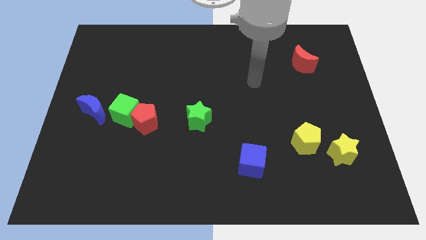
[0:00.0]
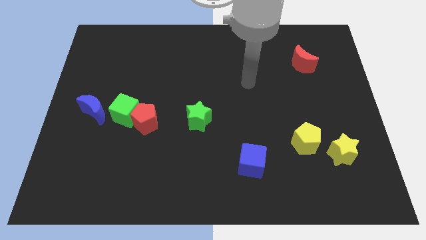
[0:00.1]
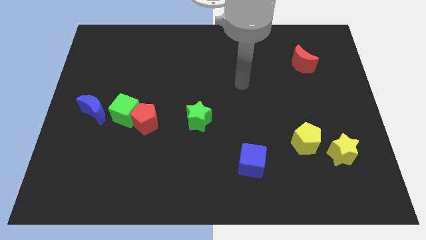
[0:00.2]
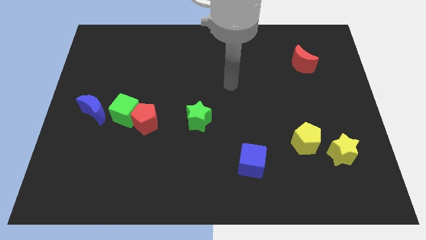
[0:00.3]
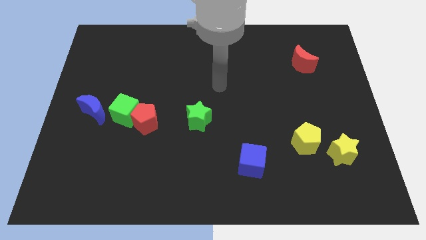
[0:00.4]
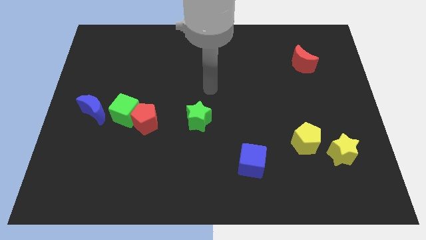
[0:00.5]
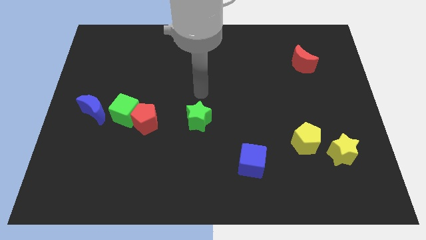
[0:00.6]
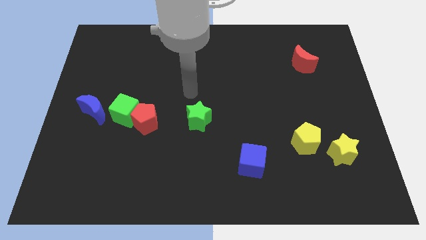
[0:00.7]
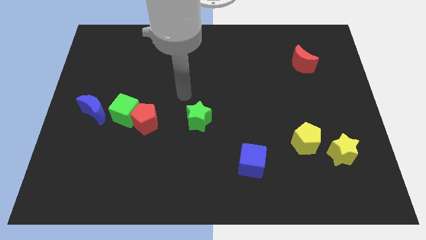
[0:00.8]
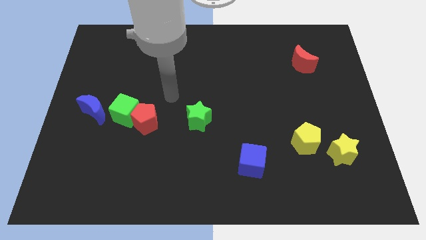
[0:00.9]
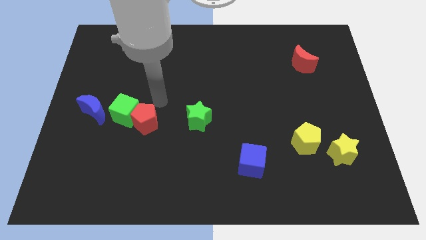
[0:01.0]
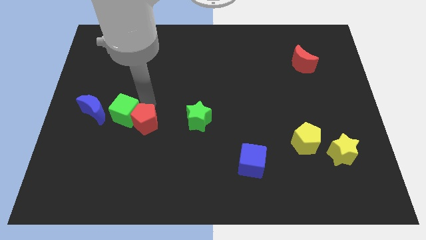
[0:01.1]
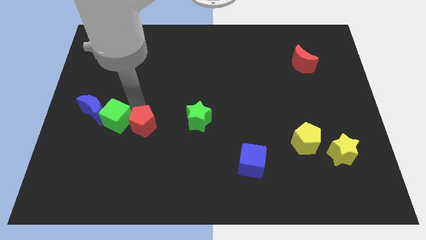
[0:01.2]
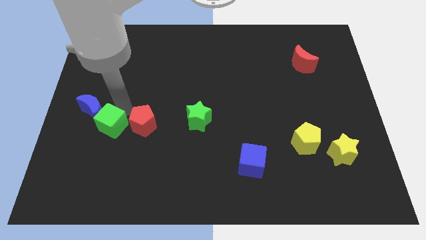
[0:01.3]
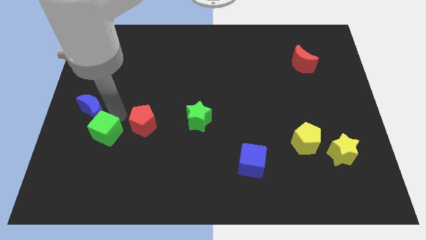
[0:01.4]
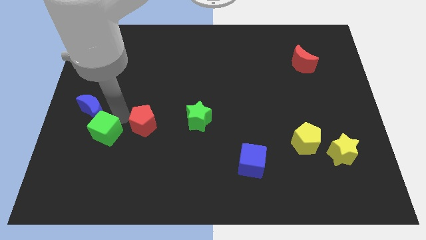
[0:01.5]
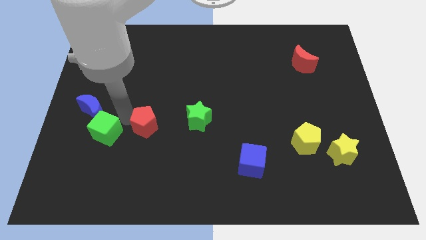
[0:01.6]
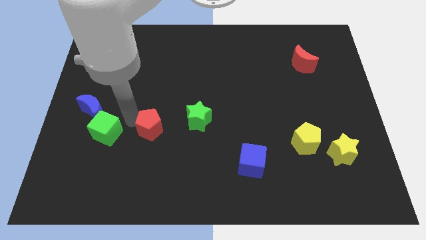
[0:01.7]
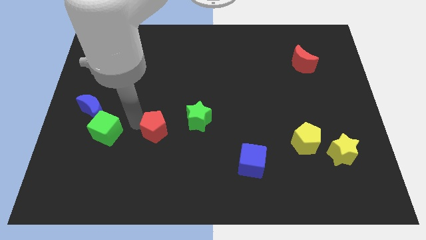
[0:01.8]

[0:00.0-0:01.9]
move the red pentagon away from the green cube

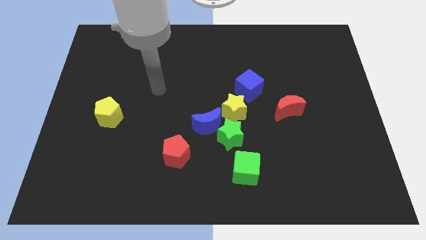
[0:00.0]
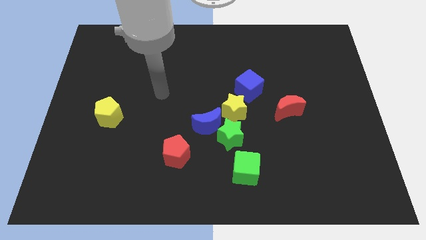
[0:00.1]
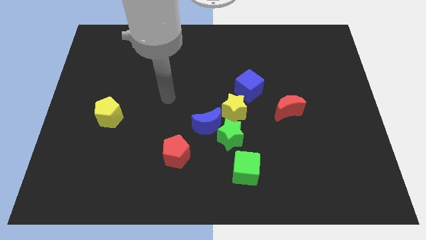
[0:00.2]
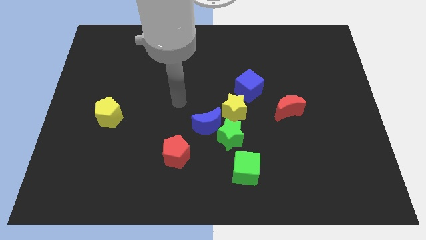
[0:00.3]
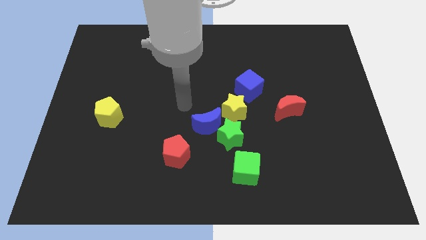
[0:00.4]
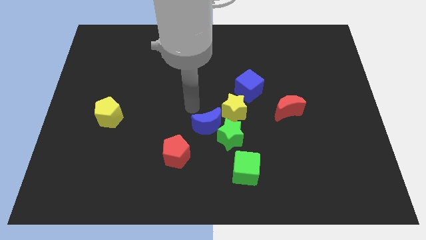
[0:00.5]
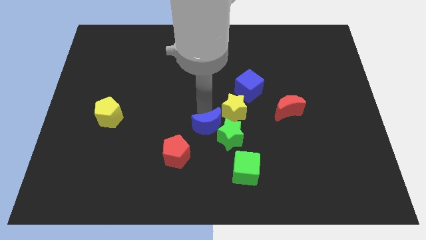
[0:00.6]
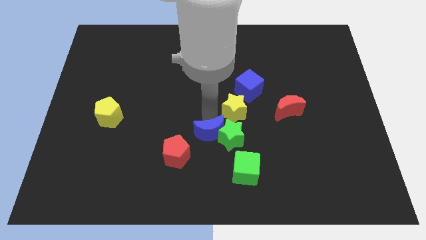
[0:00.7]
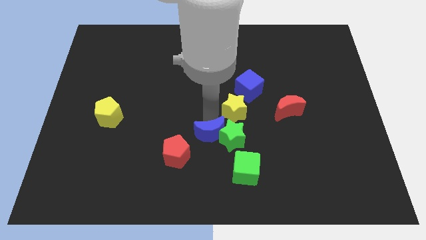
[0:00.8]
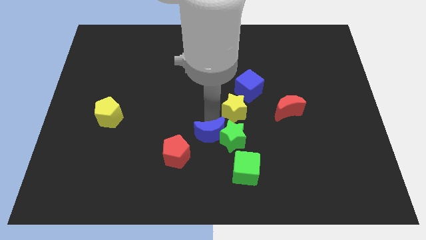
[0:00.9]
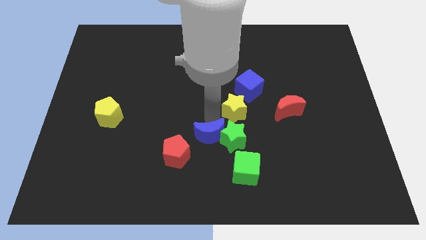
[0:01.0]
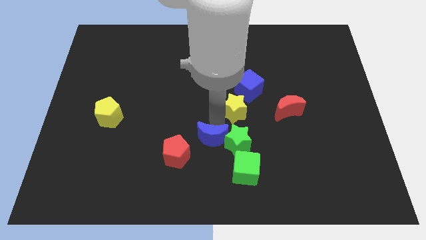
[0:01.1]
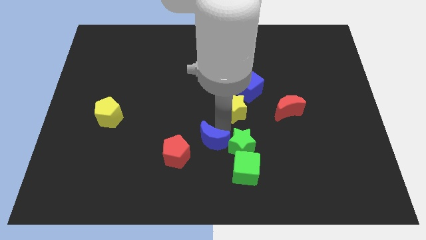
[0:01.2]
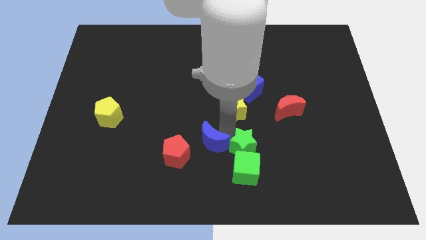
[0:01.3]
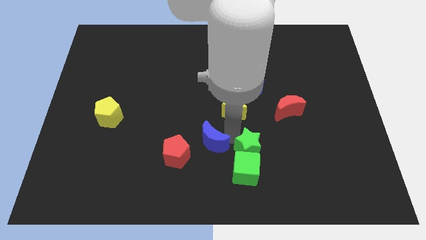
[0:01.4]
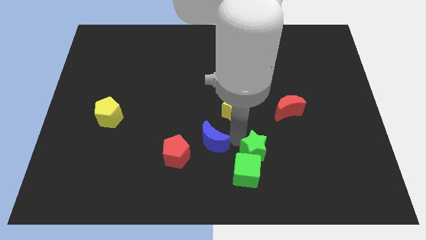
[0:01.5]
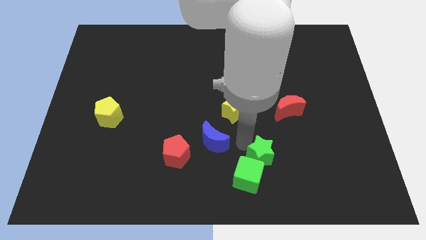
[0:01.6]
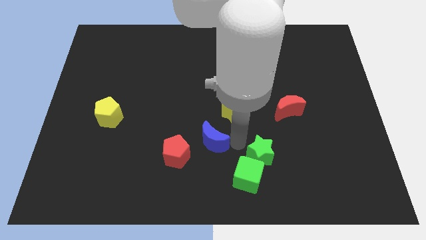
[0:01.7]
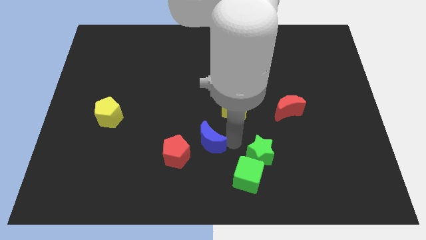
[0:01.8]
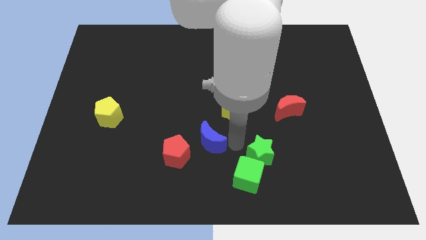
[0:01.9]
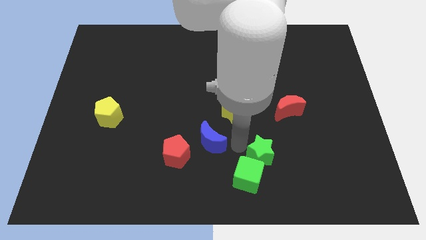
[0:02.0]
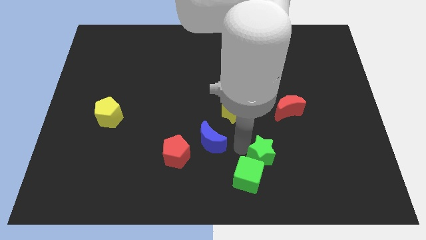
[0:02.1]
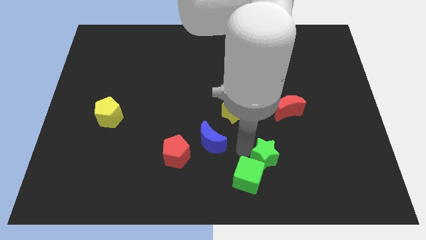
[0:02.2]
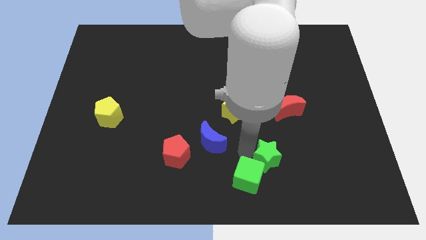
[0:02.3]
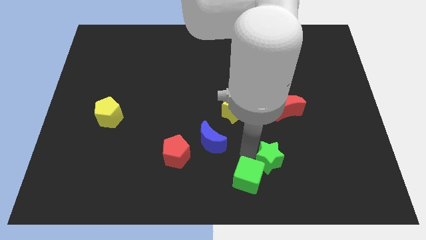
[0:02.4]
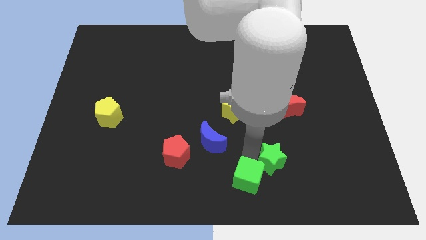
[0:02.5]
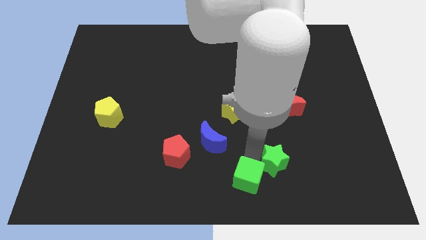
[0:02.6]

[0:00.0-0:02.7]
move the green star away from the blue moon, yellow star, and green cube

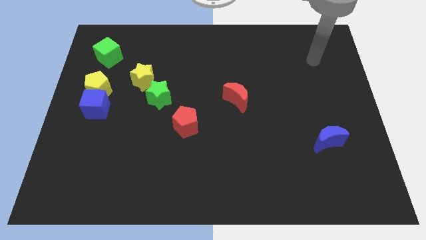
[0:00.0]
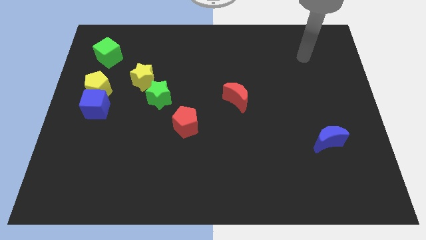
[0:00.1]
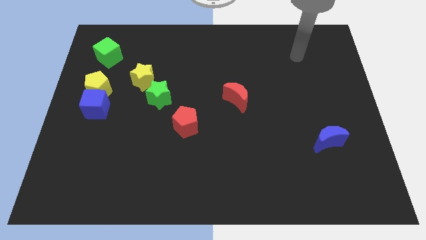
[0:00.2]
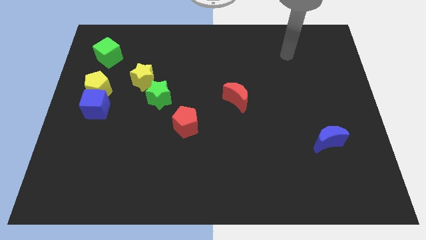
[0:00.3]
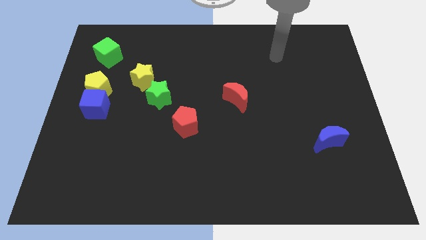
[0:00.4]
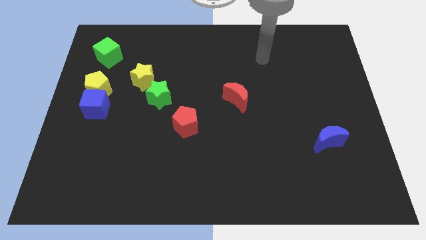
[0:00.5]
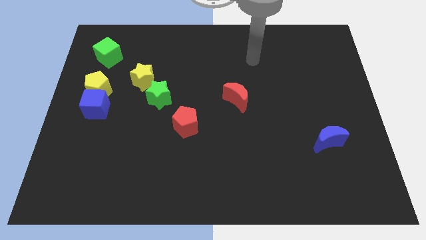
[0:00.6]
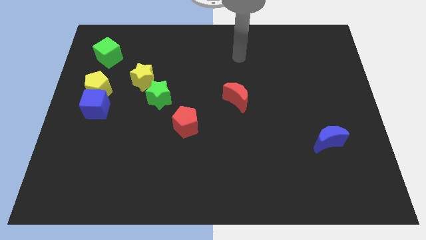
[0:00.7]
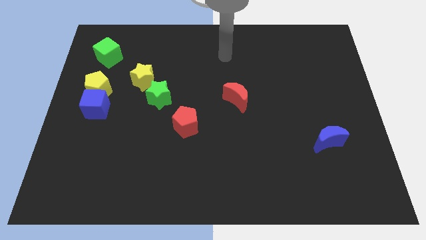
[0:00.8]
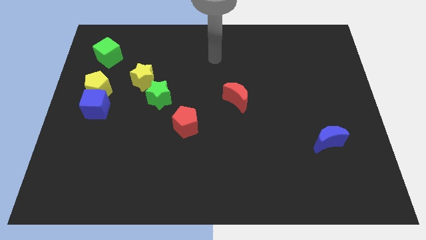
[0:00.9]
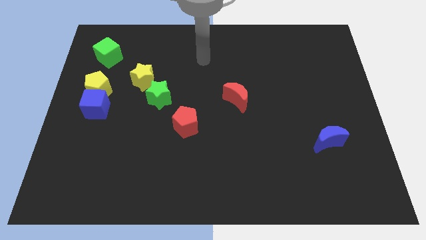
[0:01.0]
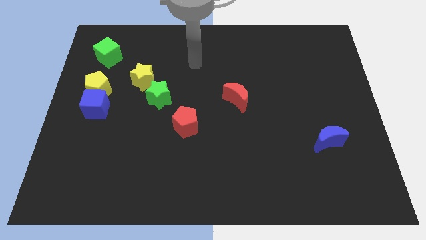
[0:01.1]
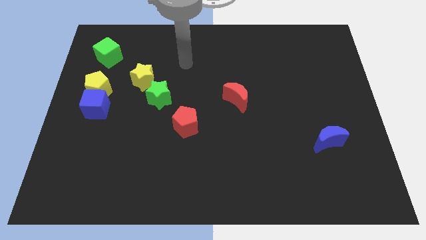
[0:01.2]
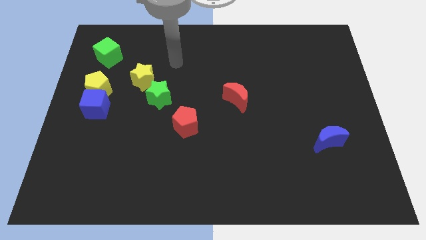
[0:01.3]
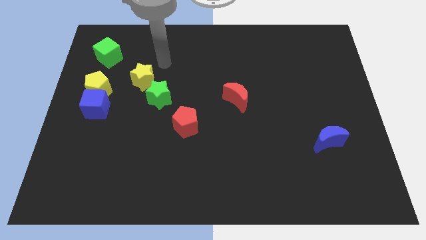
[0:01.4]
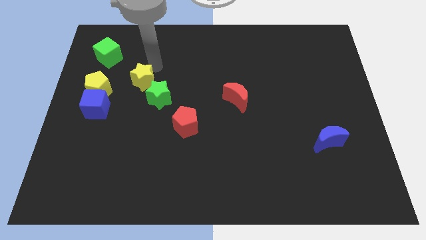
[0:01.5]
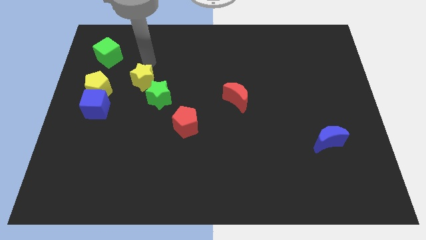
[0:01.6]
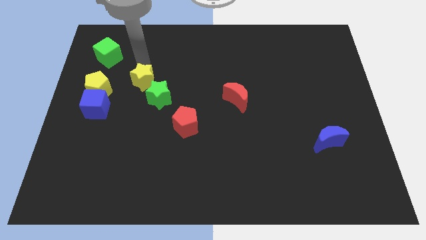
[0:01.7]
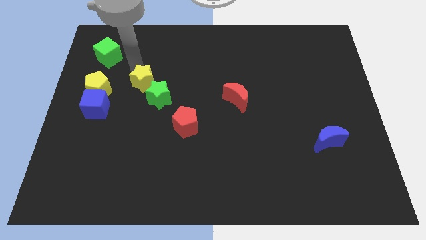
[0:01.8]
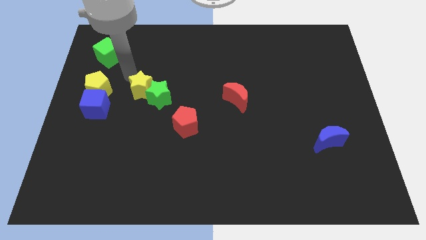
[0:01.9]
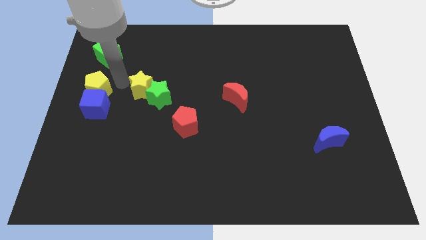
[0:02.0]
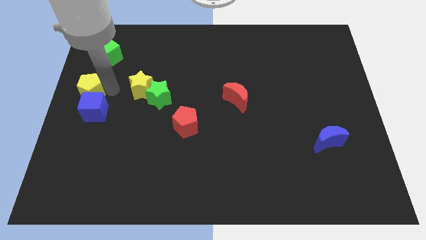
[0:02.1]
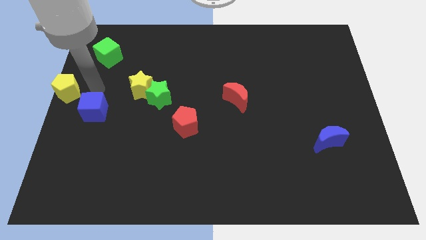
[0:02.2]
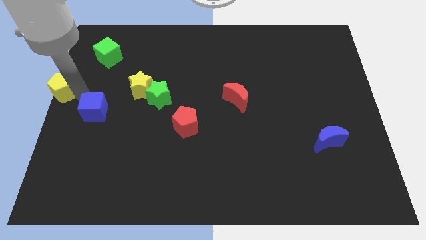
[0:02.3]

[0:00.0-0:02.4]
move the blue cube away from the yellow pentagon

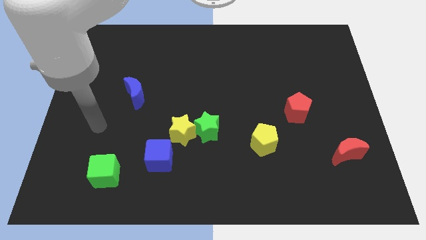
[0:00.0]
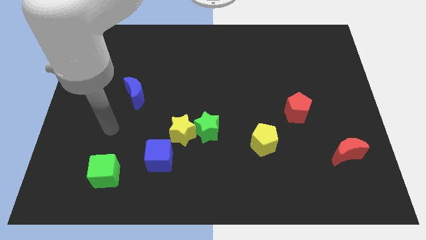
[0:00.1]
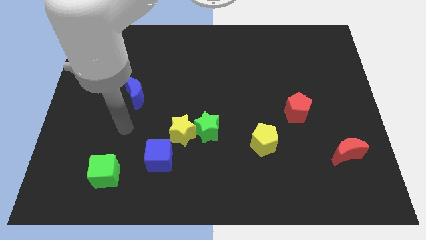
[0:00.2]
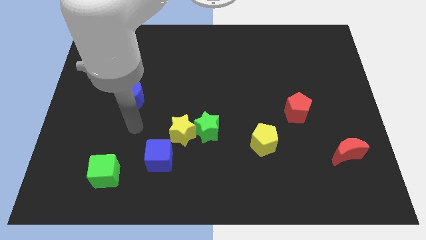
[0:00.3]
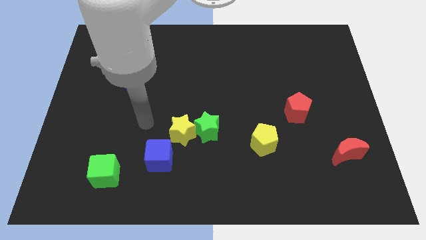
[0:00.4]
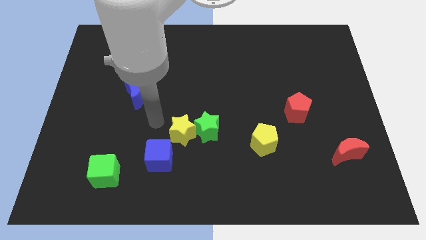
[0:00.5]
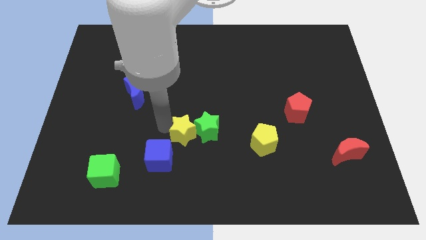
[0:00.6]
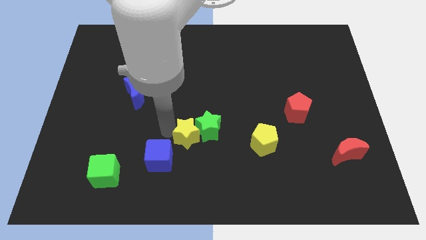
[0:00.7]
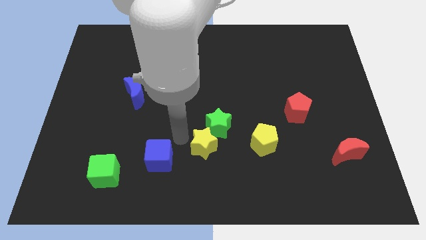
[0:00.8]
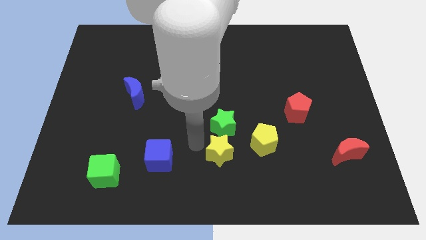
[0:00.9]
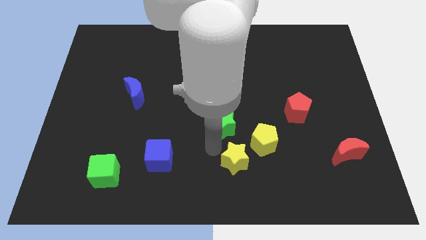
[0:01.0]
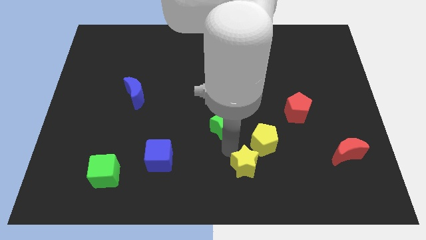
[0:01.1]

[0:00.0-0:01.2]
move the green star away from the yellow star

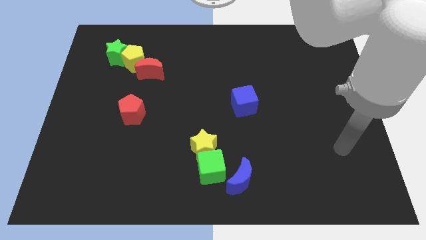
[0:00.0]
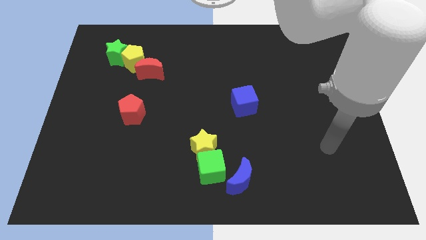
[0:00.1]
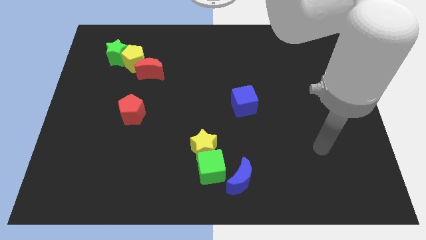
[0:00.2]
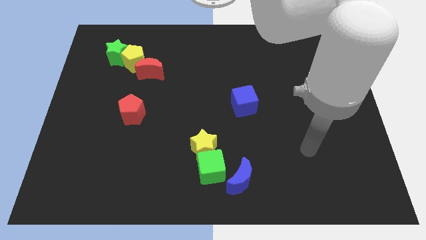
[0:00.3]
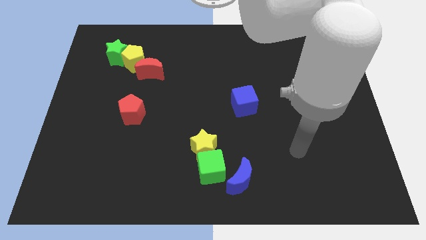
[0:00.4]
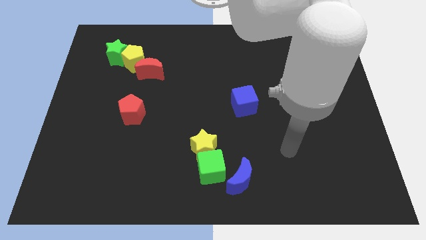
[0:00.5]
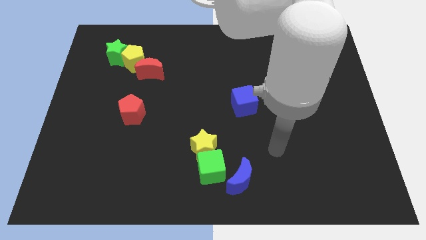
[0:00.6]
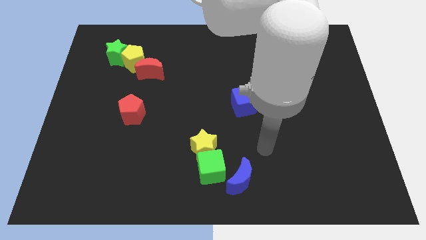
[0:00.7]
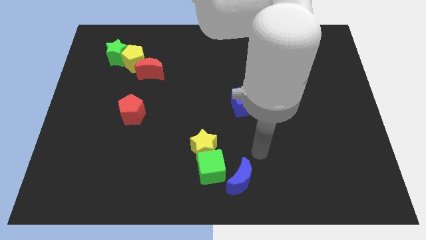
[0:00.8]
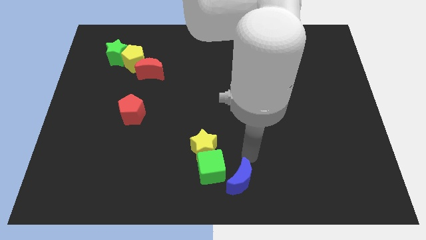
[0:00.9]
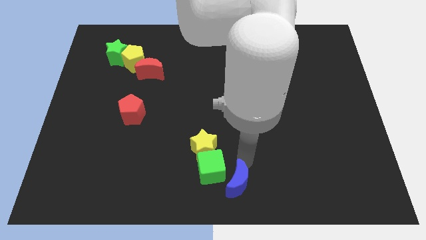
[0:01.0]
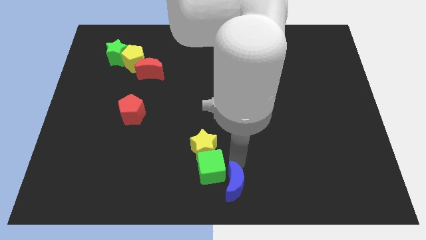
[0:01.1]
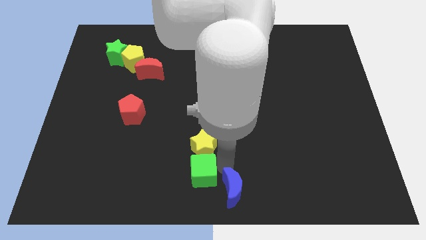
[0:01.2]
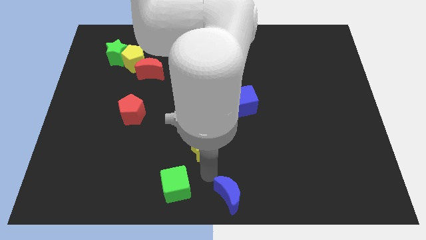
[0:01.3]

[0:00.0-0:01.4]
separate the yellow star from the green cube
